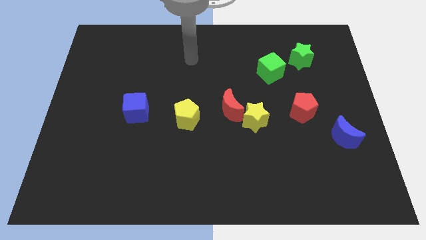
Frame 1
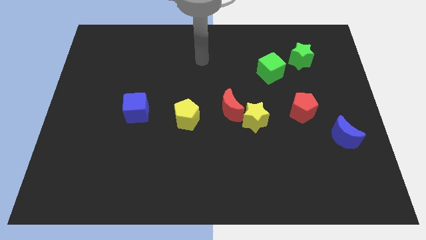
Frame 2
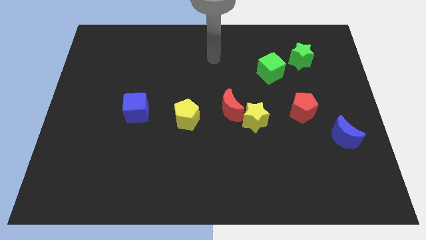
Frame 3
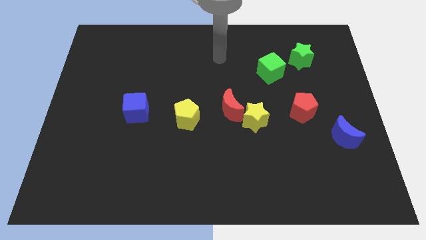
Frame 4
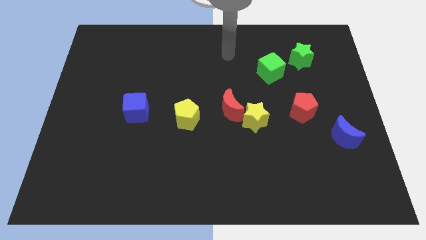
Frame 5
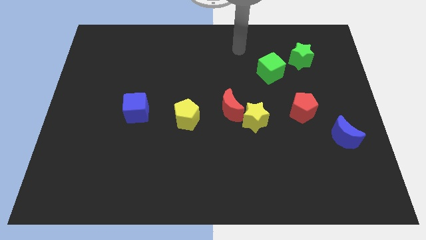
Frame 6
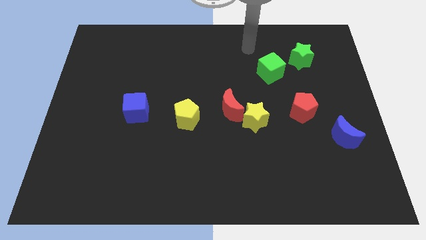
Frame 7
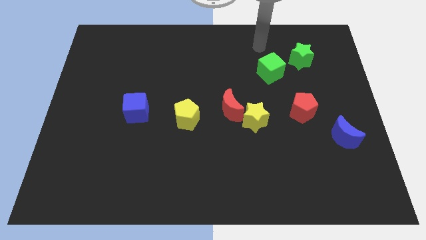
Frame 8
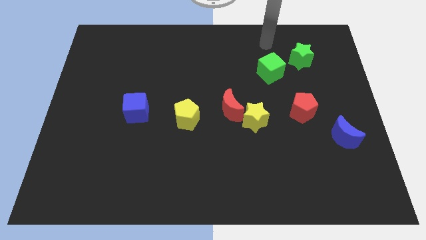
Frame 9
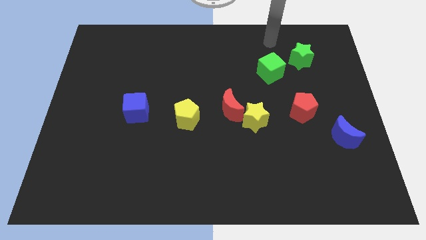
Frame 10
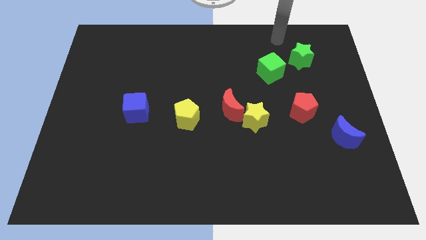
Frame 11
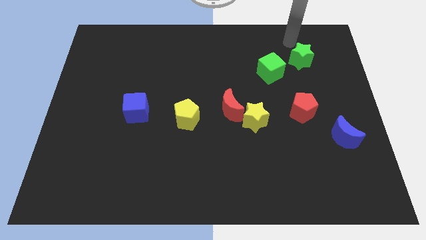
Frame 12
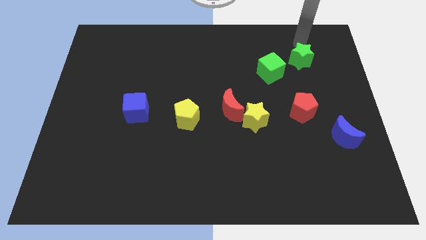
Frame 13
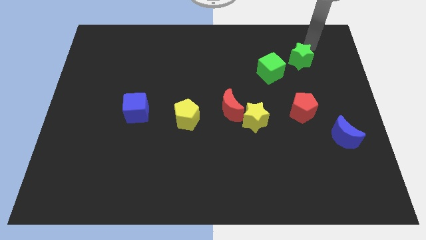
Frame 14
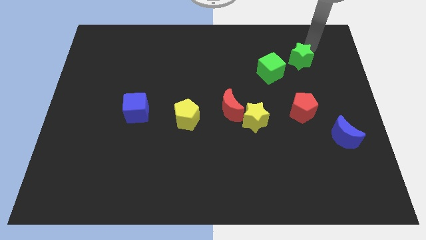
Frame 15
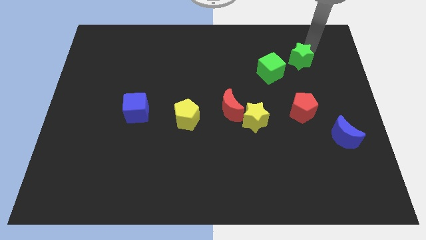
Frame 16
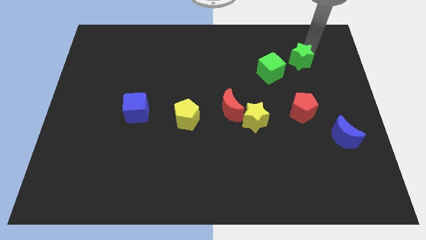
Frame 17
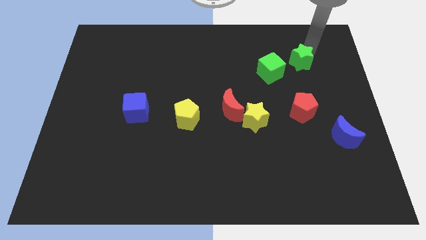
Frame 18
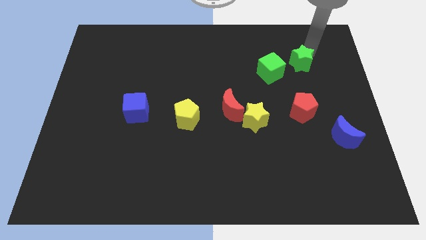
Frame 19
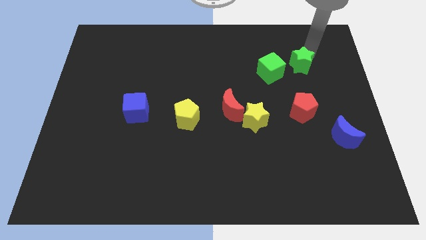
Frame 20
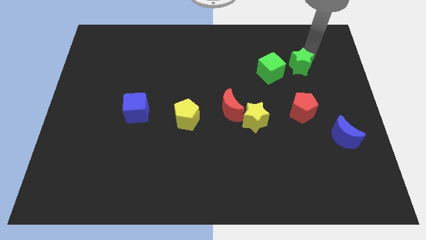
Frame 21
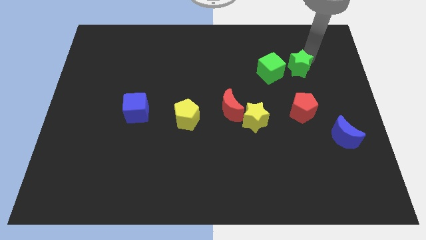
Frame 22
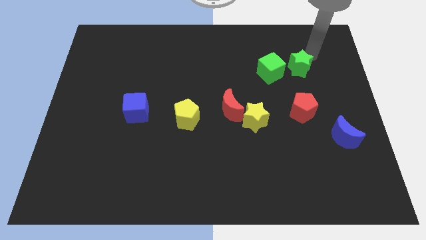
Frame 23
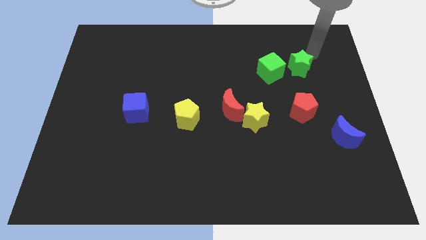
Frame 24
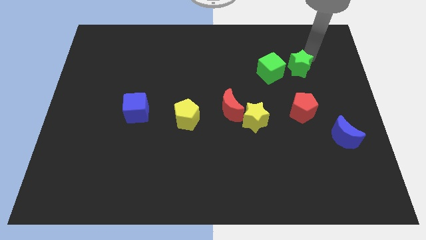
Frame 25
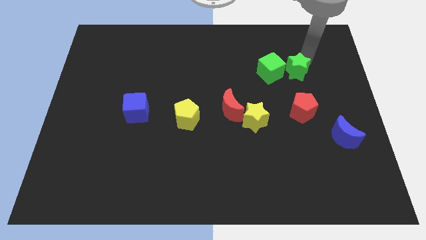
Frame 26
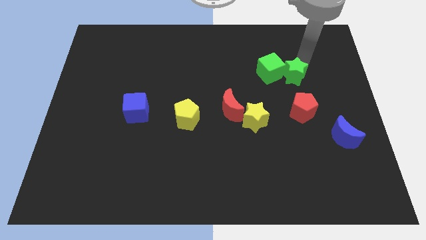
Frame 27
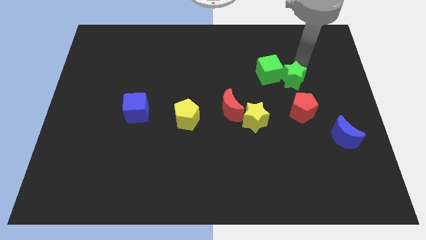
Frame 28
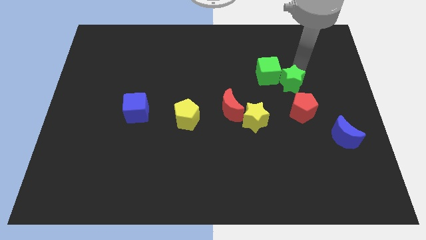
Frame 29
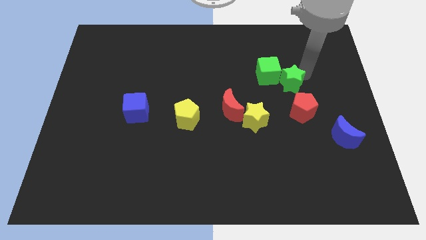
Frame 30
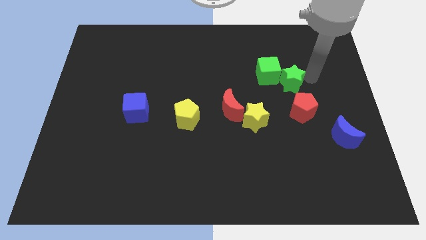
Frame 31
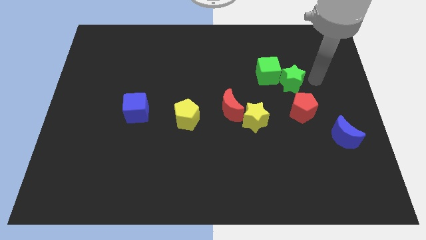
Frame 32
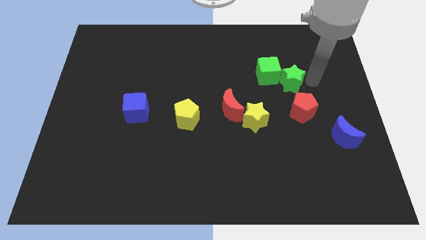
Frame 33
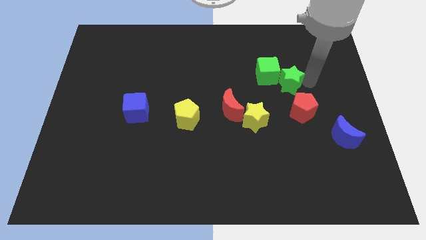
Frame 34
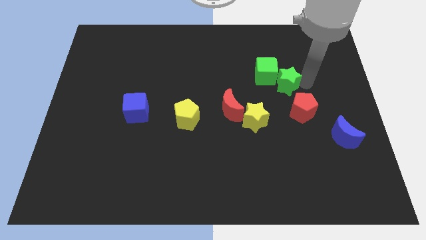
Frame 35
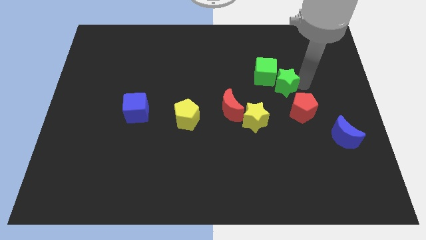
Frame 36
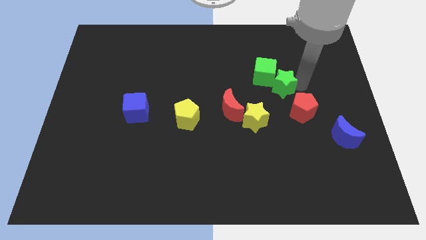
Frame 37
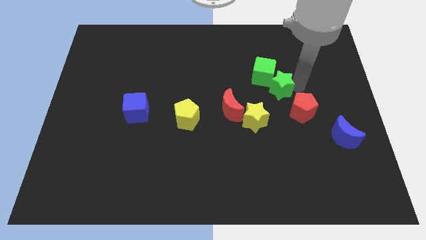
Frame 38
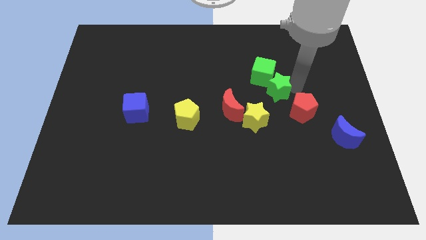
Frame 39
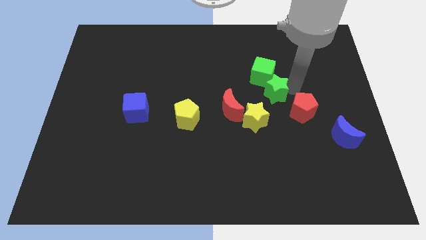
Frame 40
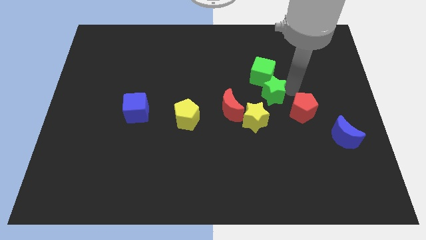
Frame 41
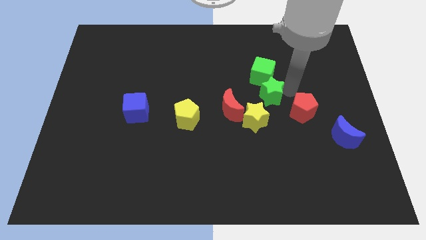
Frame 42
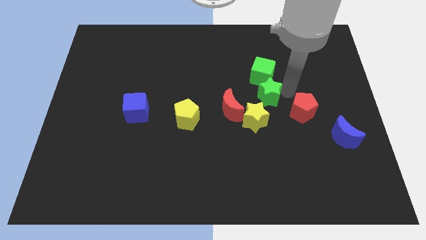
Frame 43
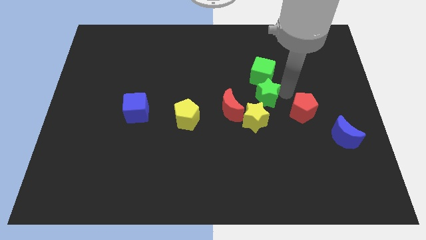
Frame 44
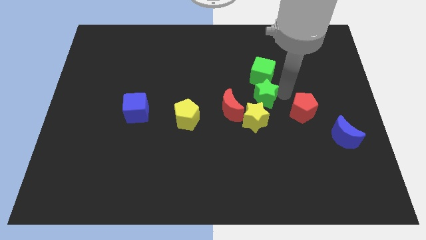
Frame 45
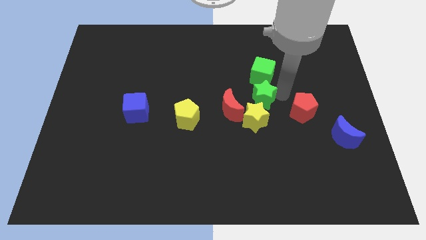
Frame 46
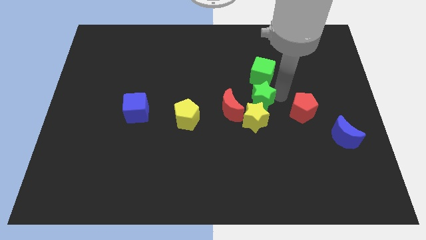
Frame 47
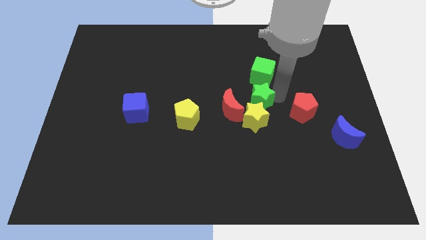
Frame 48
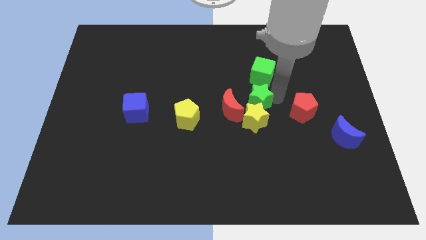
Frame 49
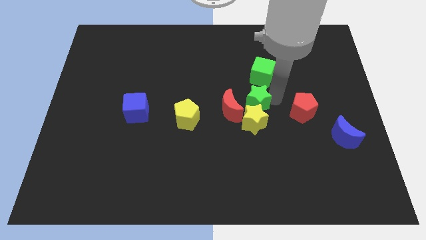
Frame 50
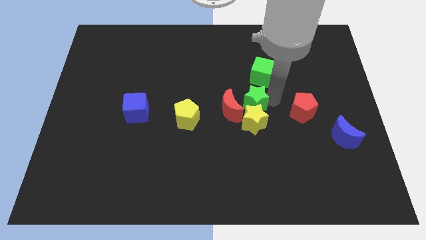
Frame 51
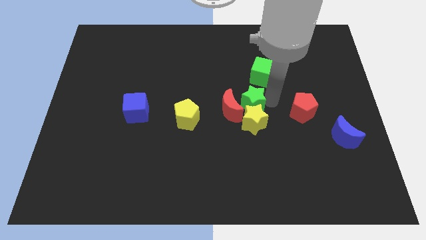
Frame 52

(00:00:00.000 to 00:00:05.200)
move the green star downwards and then to the left

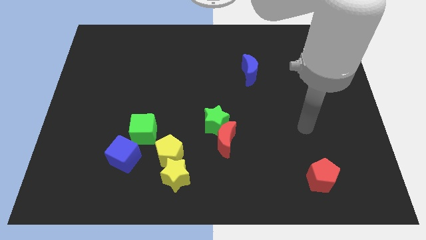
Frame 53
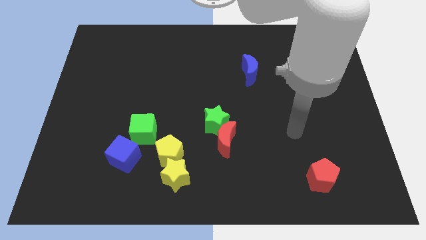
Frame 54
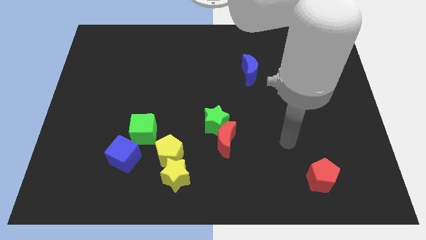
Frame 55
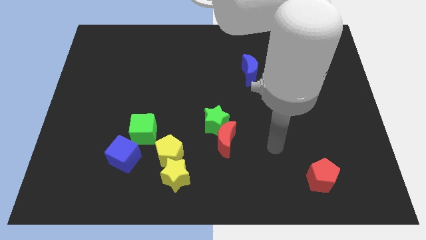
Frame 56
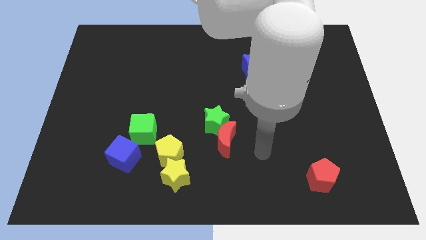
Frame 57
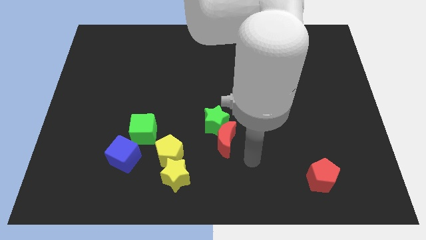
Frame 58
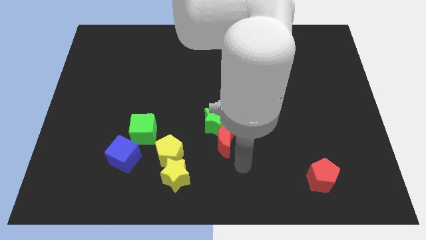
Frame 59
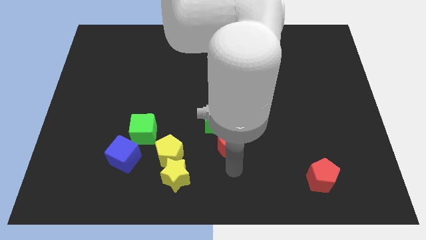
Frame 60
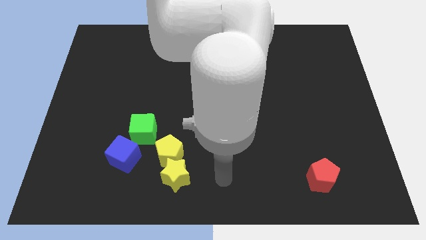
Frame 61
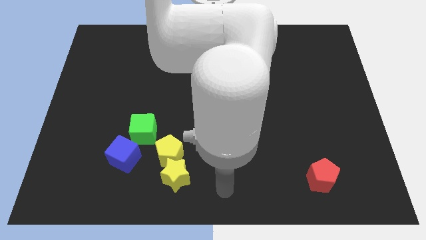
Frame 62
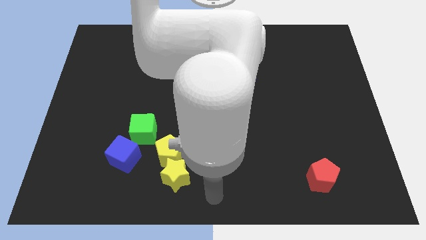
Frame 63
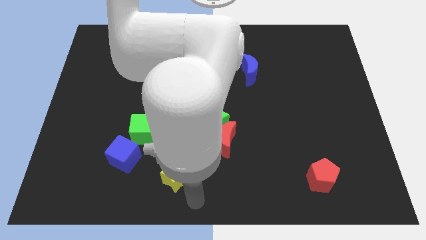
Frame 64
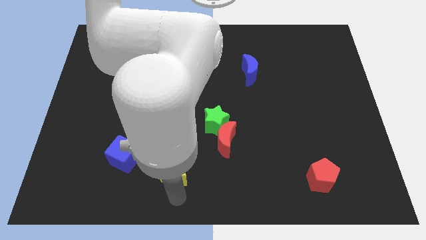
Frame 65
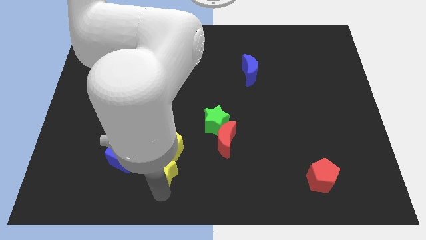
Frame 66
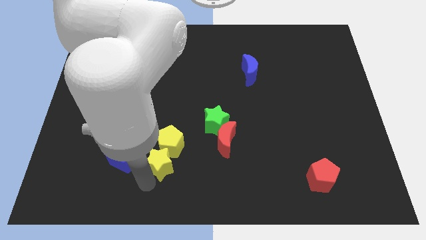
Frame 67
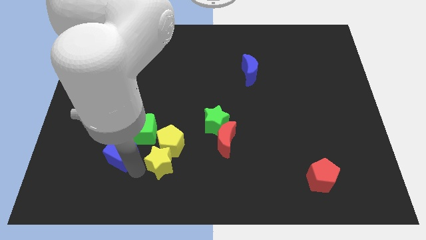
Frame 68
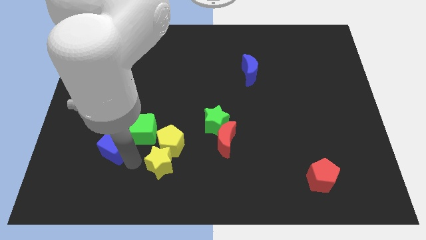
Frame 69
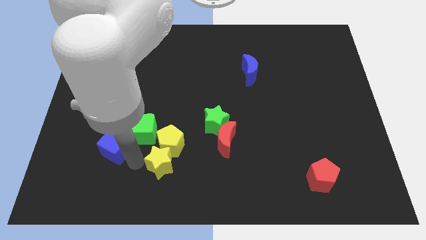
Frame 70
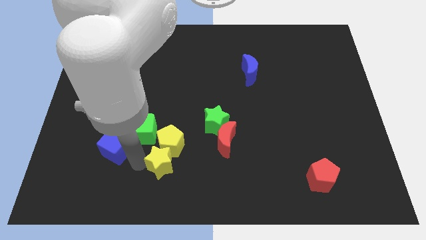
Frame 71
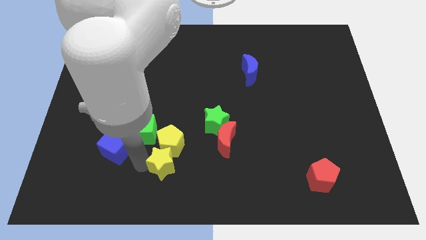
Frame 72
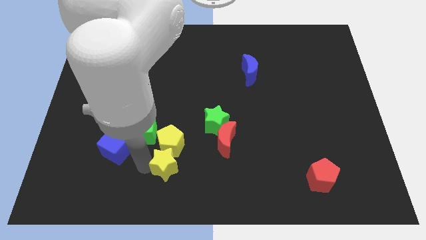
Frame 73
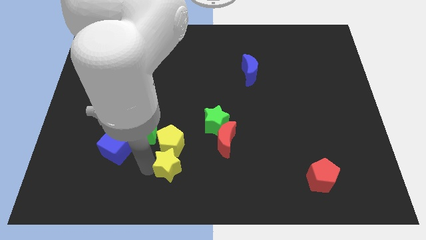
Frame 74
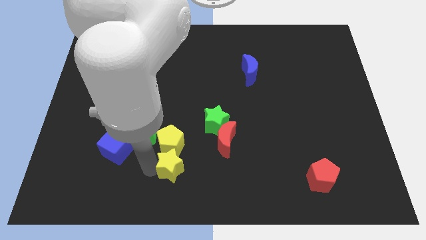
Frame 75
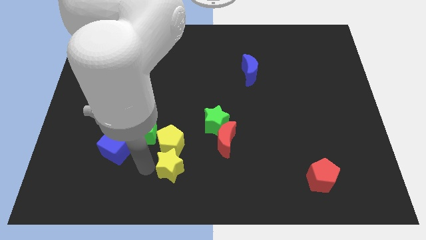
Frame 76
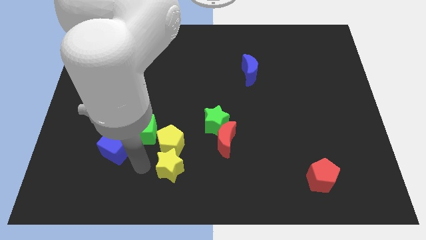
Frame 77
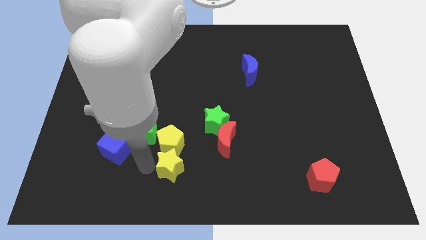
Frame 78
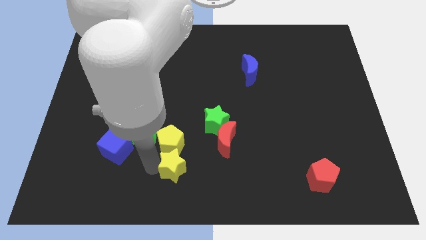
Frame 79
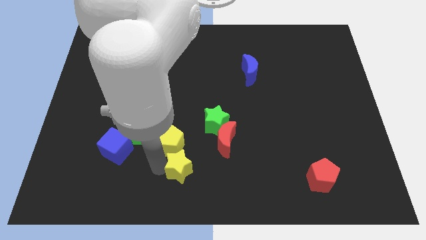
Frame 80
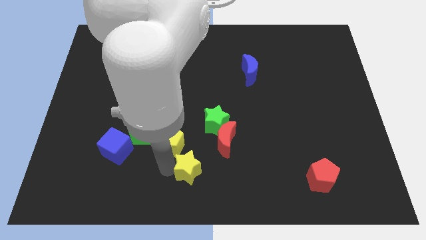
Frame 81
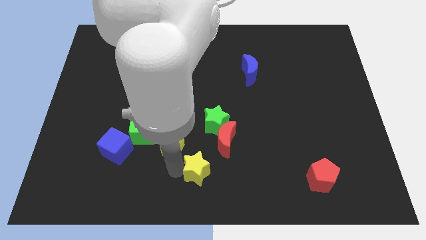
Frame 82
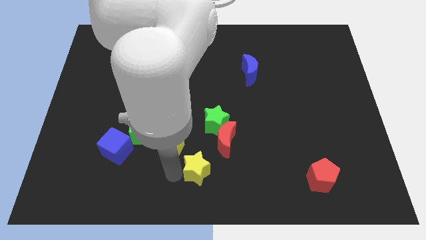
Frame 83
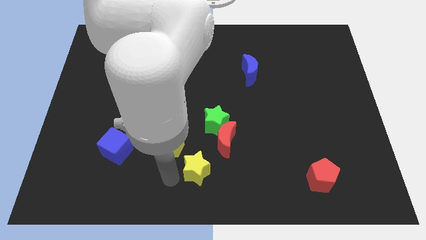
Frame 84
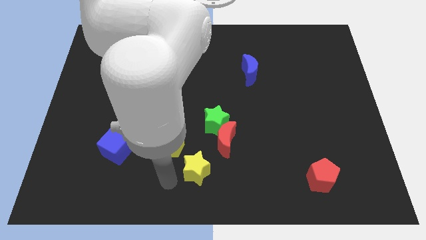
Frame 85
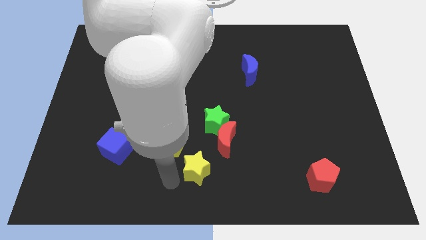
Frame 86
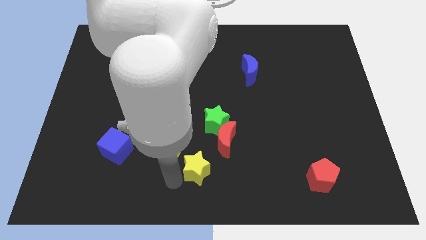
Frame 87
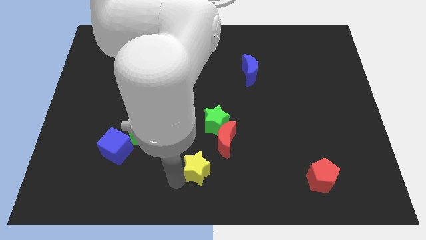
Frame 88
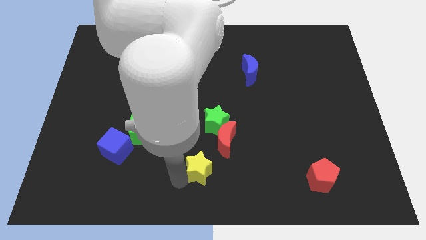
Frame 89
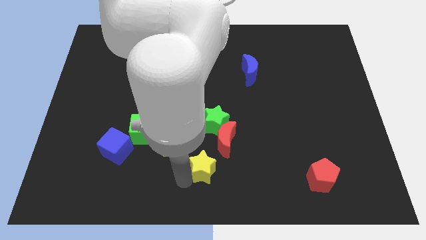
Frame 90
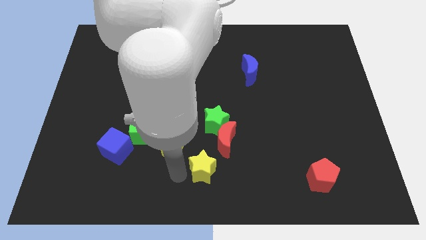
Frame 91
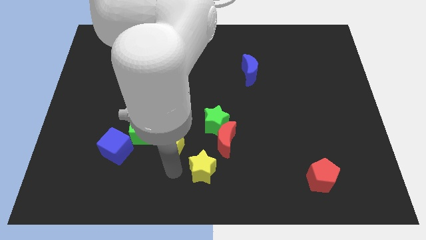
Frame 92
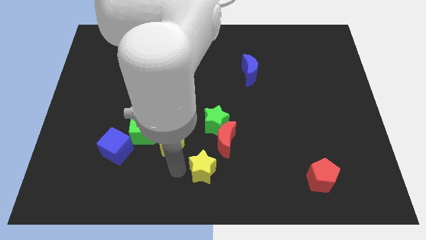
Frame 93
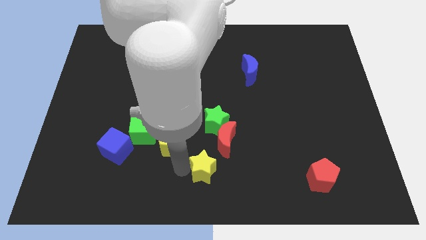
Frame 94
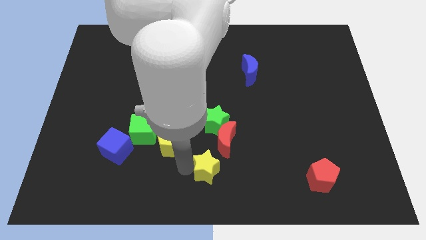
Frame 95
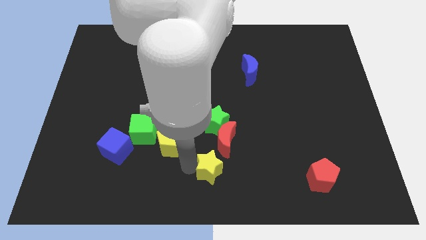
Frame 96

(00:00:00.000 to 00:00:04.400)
push the yellow star right somewhat
